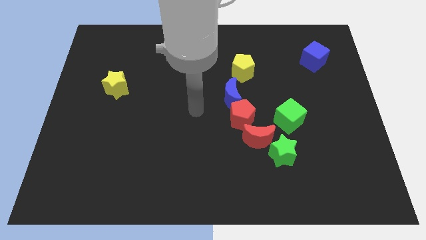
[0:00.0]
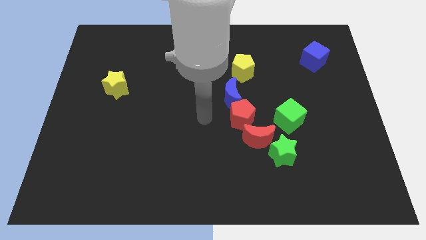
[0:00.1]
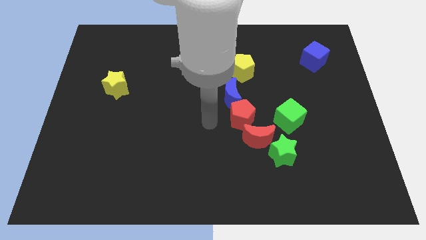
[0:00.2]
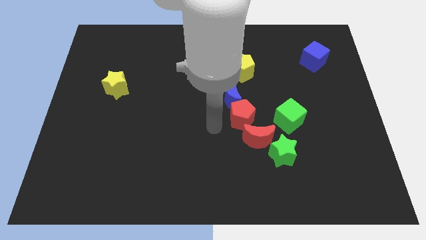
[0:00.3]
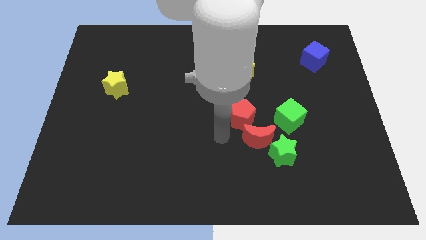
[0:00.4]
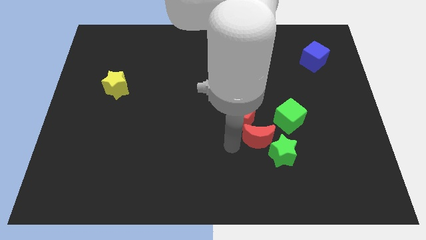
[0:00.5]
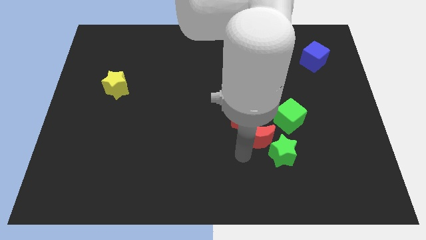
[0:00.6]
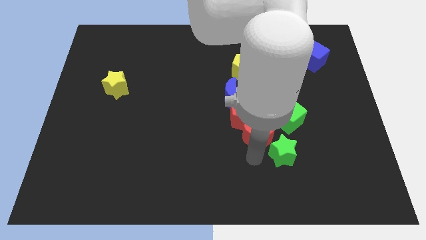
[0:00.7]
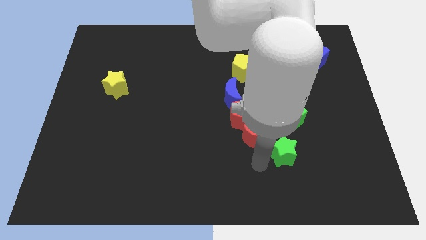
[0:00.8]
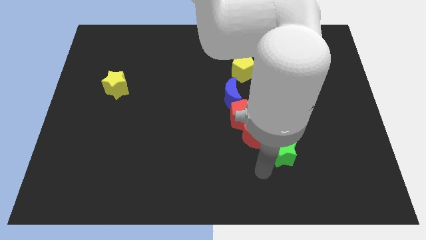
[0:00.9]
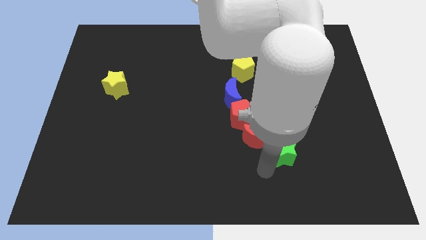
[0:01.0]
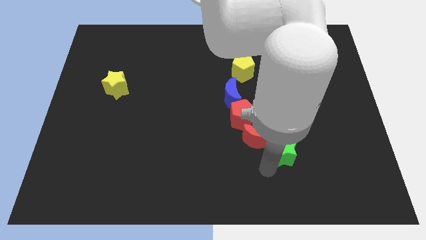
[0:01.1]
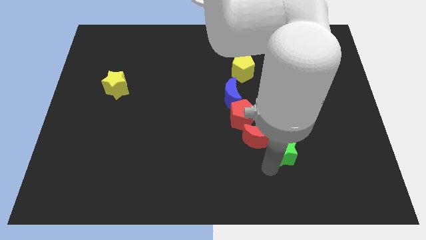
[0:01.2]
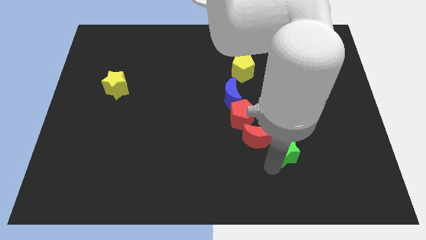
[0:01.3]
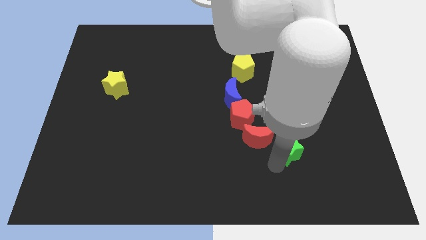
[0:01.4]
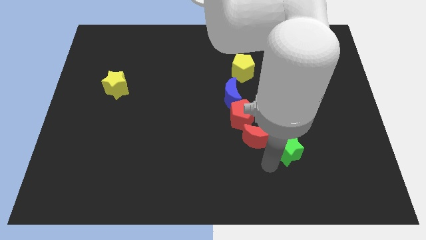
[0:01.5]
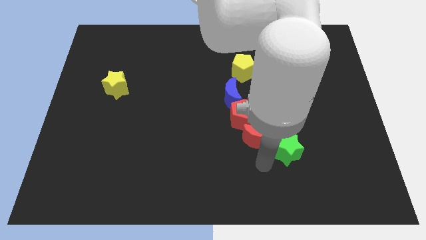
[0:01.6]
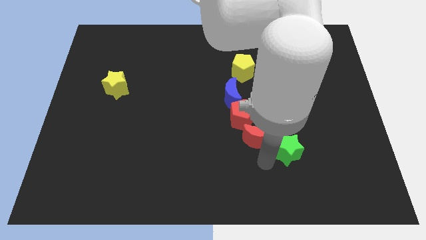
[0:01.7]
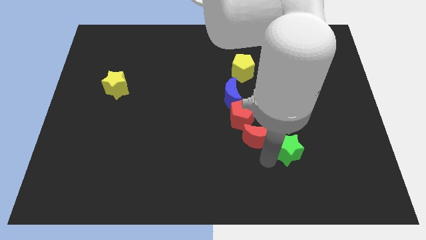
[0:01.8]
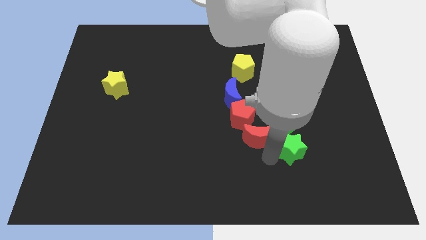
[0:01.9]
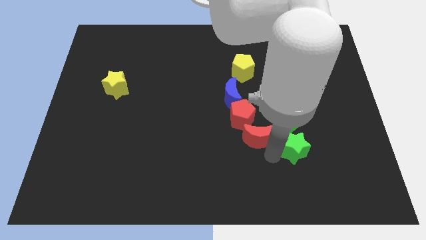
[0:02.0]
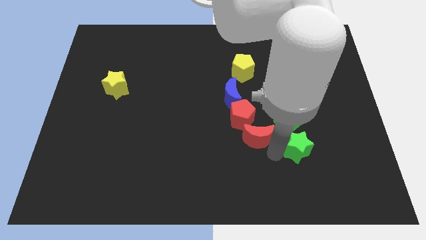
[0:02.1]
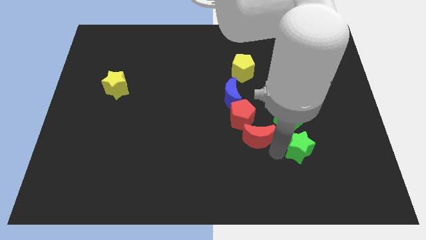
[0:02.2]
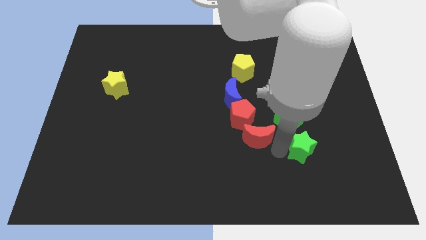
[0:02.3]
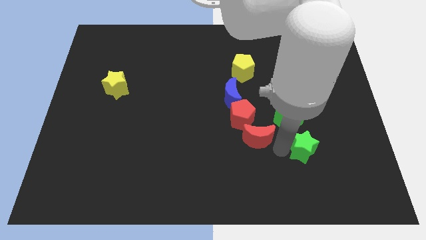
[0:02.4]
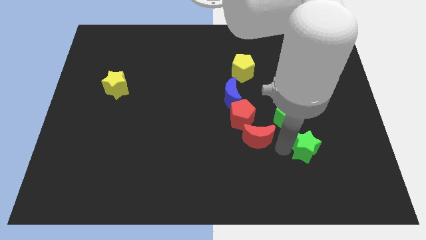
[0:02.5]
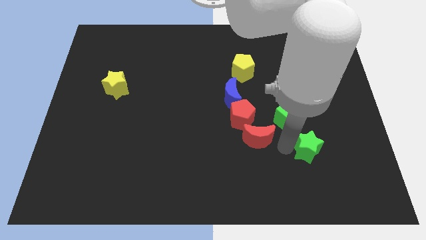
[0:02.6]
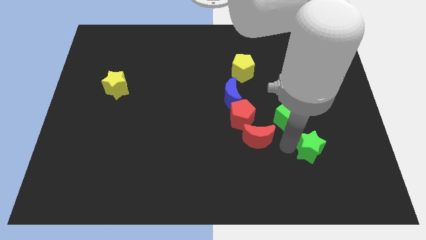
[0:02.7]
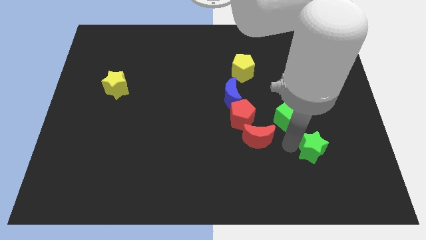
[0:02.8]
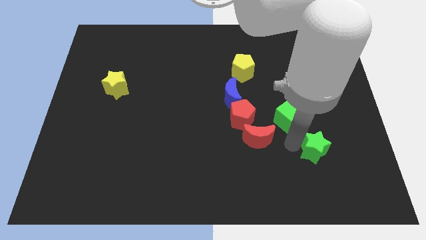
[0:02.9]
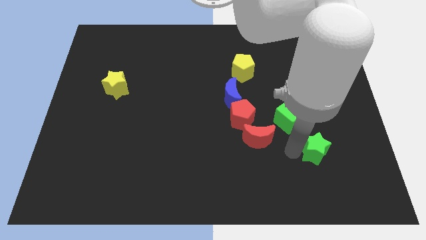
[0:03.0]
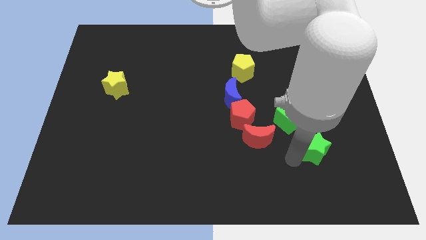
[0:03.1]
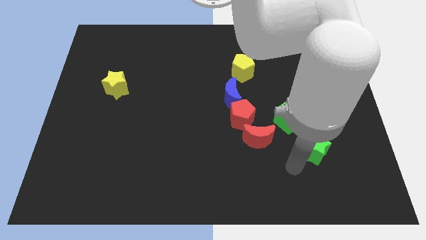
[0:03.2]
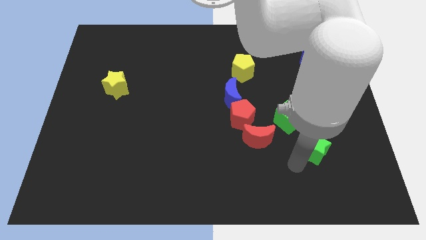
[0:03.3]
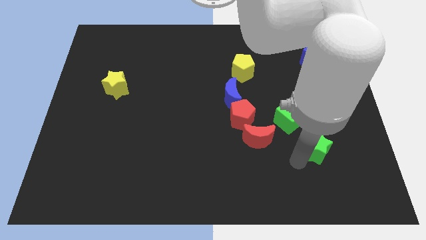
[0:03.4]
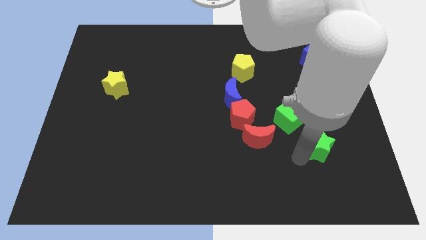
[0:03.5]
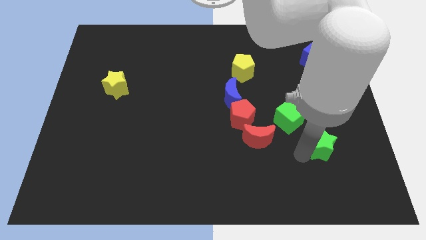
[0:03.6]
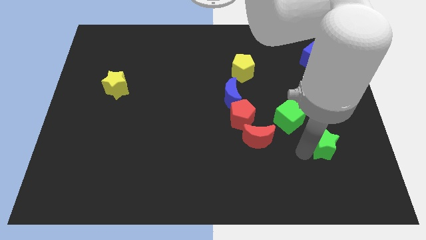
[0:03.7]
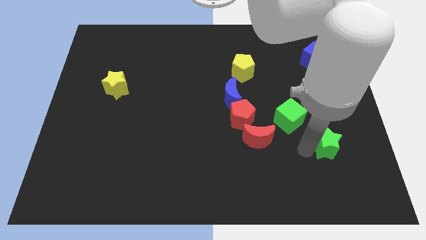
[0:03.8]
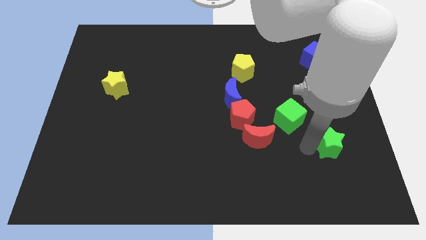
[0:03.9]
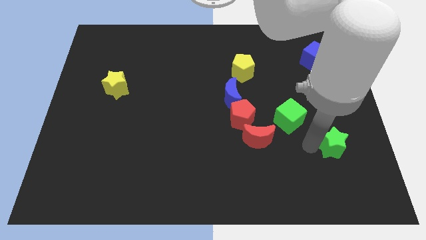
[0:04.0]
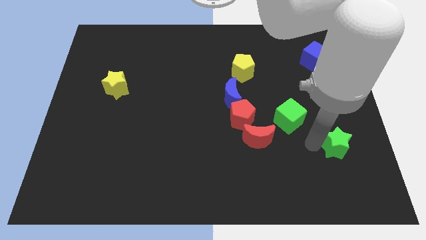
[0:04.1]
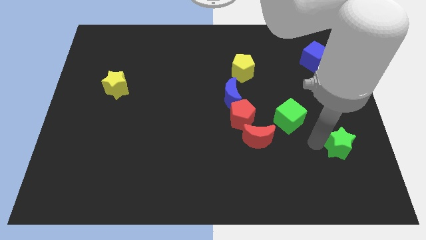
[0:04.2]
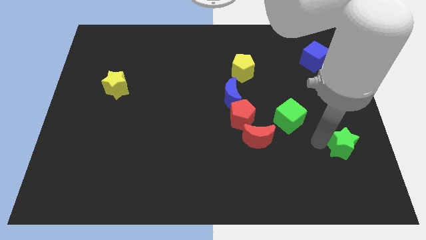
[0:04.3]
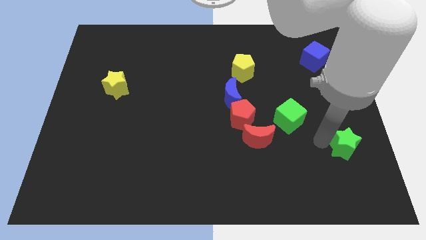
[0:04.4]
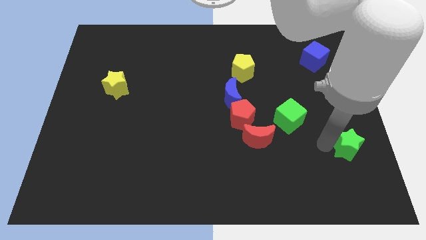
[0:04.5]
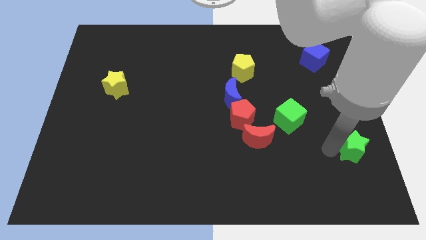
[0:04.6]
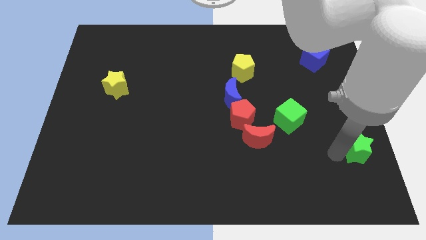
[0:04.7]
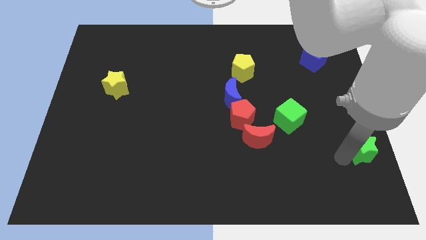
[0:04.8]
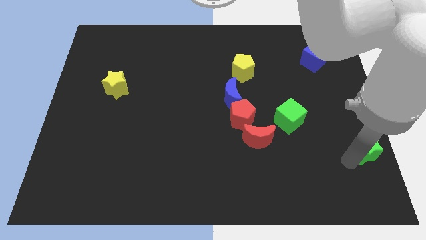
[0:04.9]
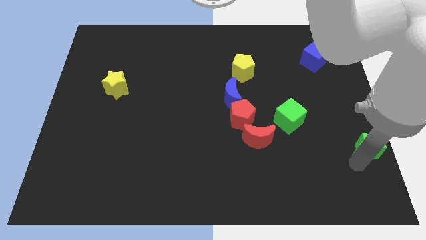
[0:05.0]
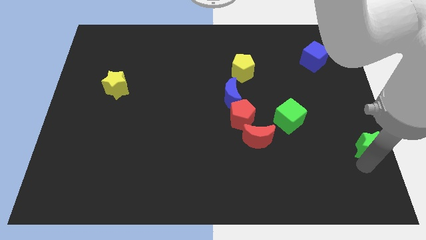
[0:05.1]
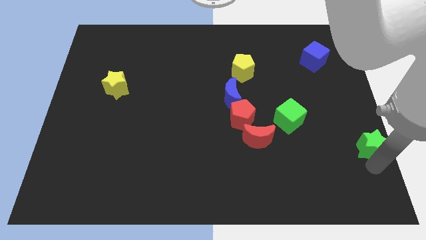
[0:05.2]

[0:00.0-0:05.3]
push the green star to the right side
